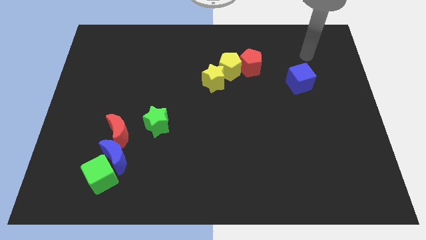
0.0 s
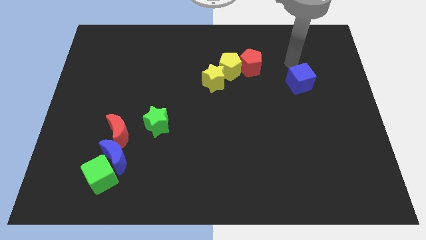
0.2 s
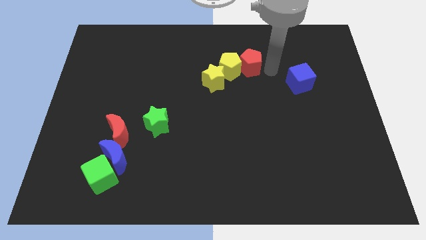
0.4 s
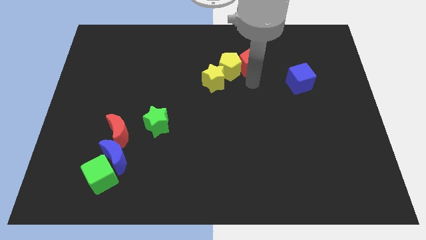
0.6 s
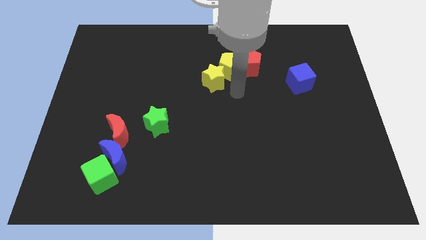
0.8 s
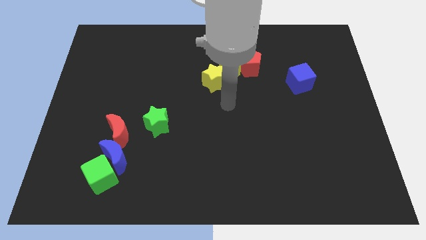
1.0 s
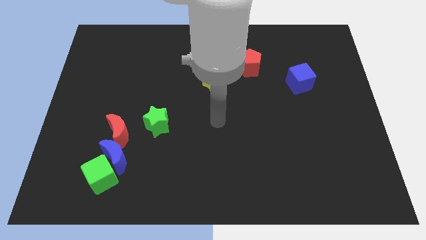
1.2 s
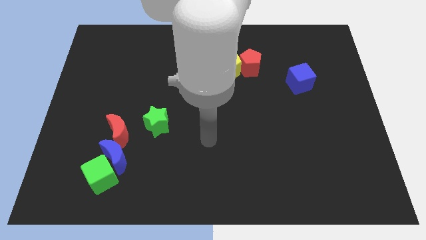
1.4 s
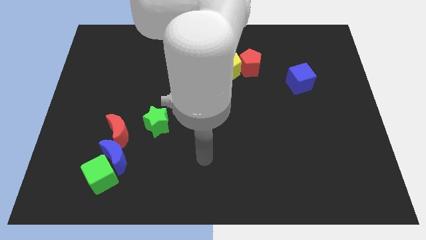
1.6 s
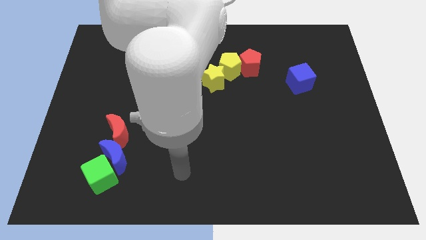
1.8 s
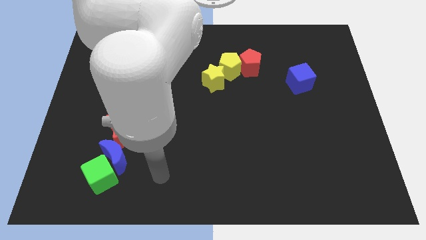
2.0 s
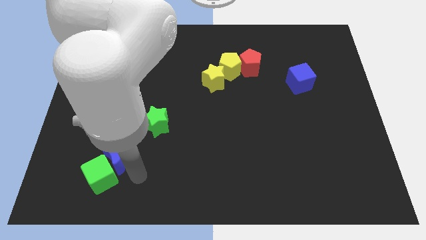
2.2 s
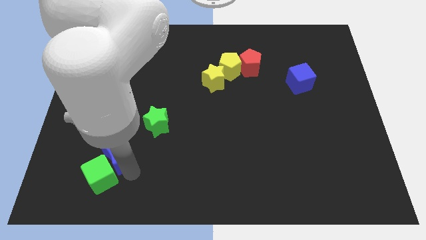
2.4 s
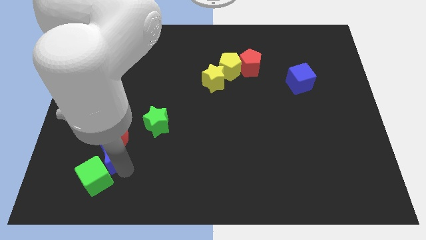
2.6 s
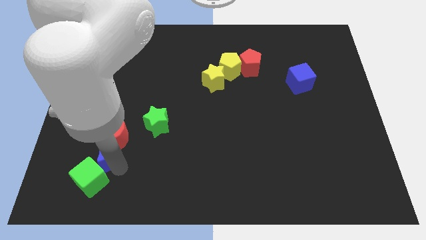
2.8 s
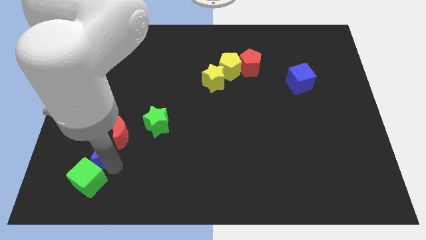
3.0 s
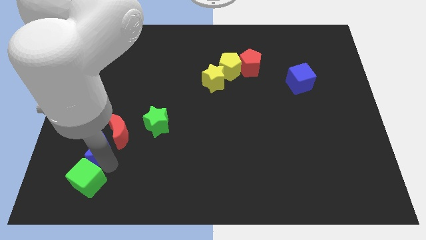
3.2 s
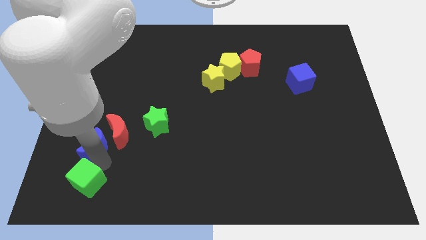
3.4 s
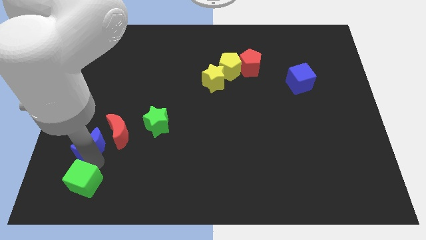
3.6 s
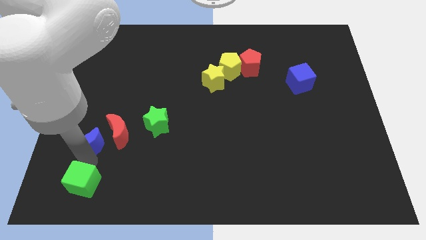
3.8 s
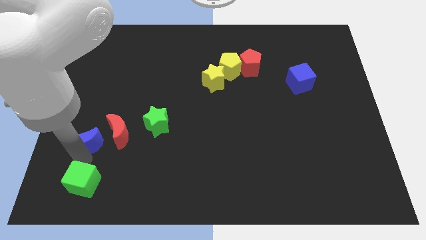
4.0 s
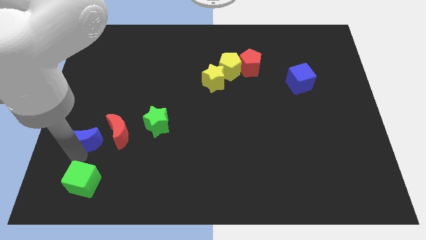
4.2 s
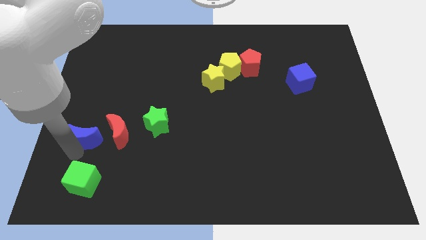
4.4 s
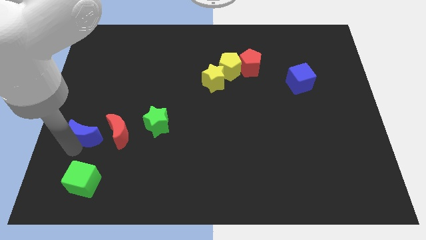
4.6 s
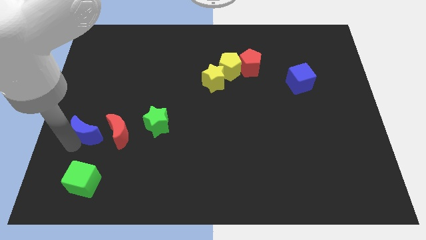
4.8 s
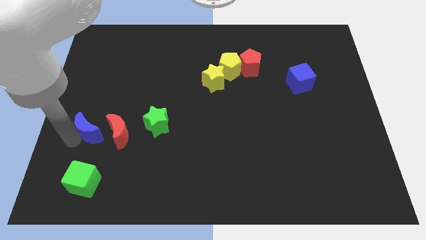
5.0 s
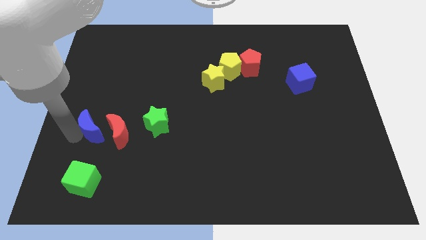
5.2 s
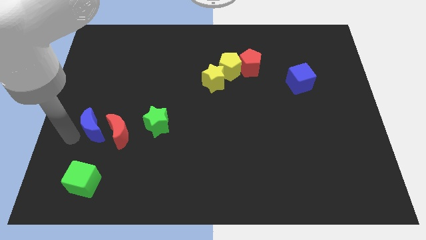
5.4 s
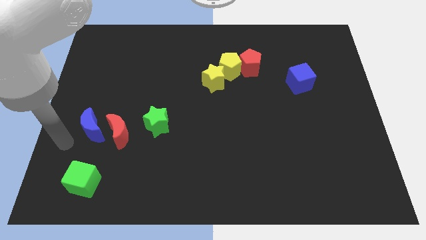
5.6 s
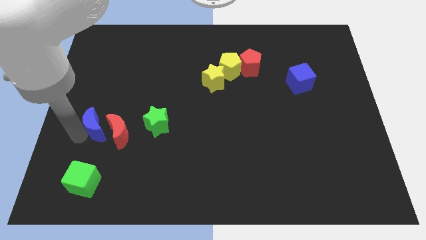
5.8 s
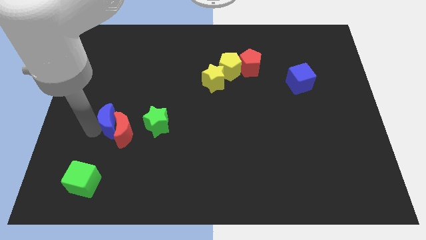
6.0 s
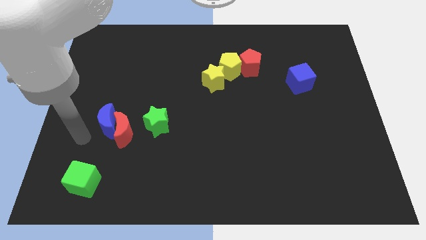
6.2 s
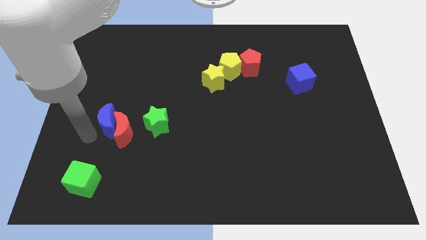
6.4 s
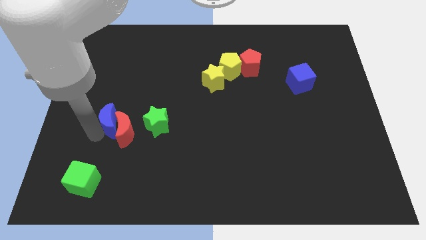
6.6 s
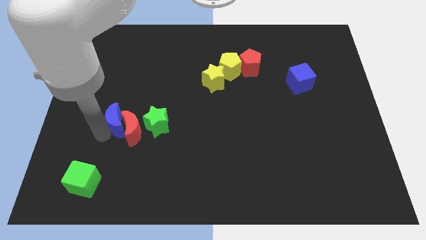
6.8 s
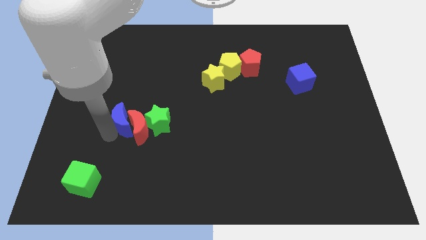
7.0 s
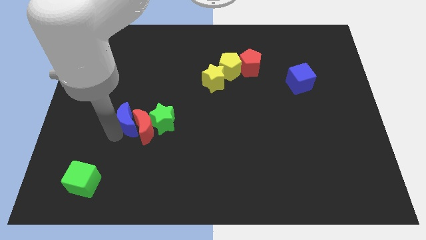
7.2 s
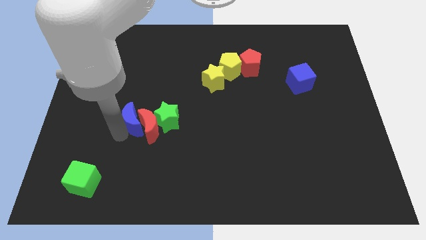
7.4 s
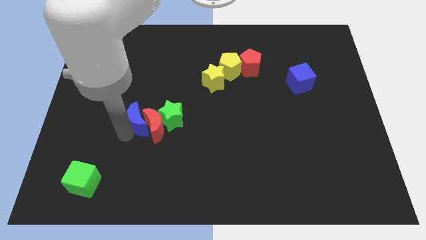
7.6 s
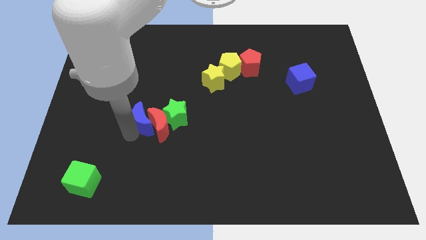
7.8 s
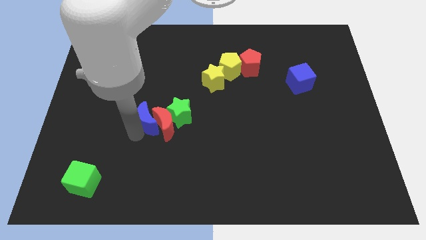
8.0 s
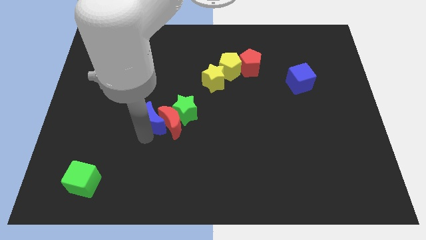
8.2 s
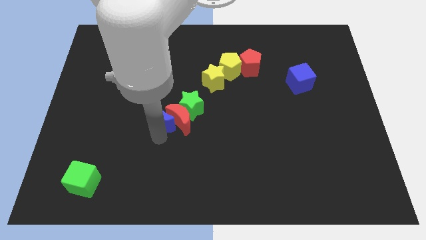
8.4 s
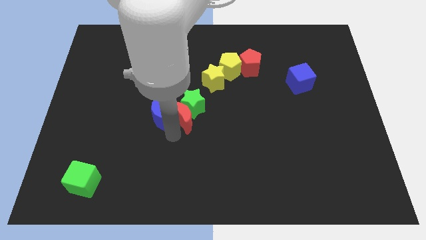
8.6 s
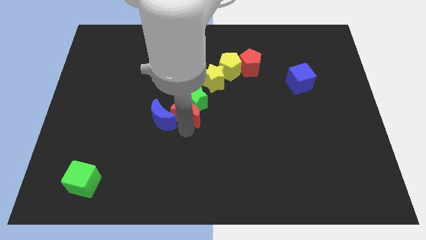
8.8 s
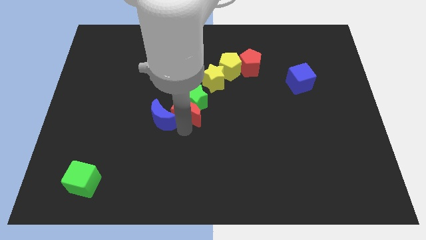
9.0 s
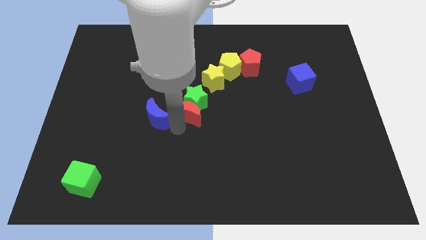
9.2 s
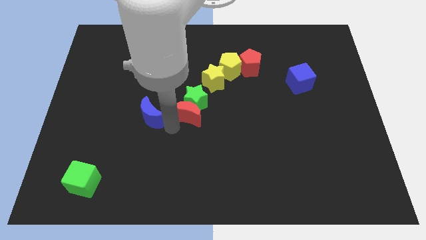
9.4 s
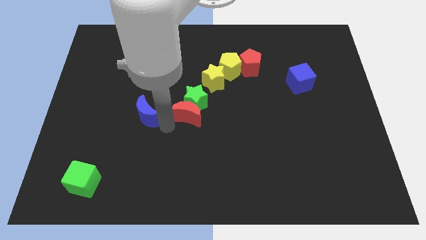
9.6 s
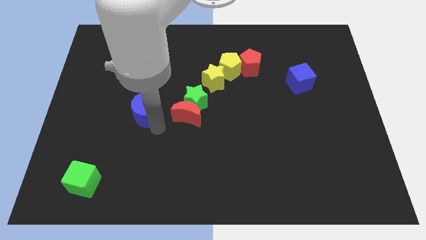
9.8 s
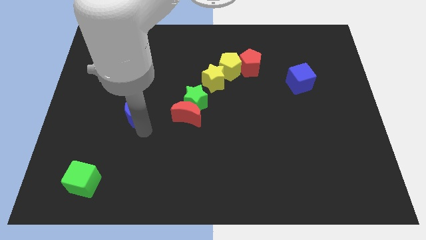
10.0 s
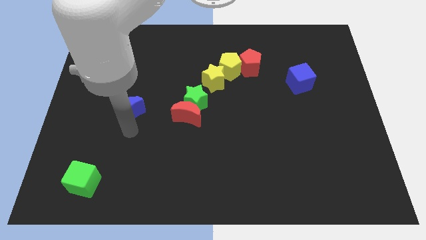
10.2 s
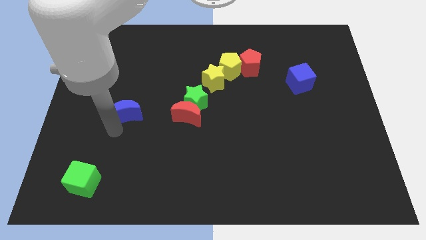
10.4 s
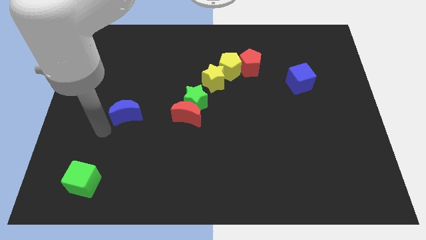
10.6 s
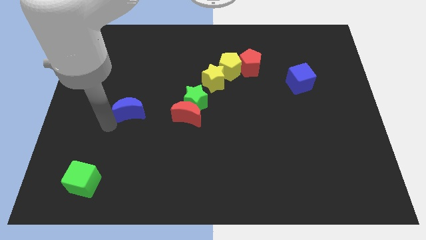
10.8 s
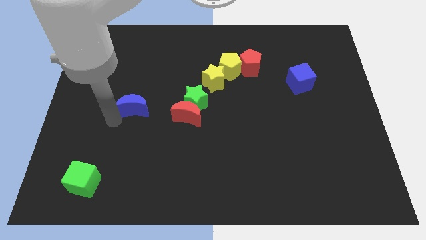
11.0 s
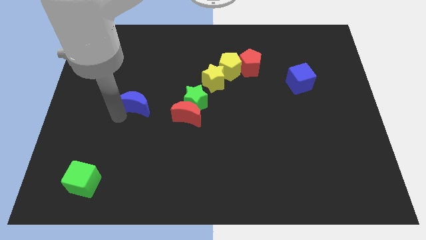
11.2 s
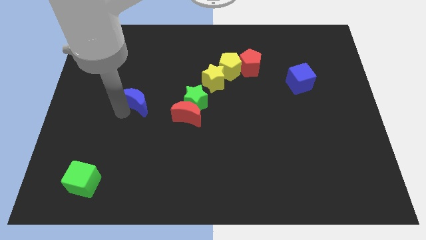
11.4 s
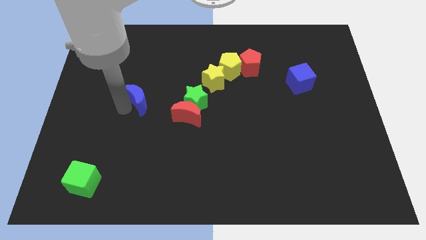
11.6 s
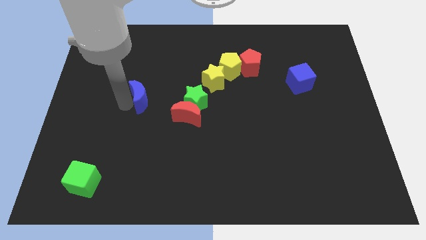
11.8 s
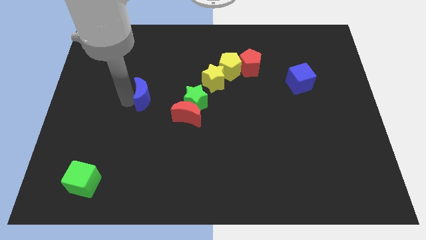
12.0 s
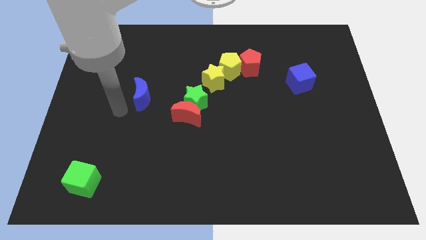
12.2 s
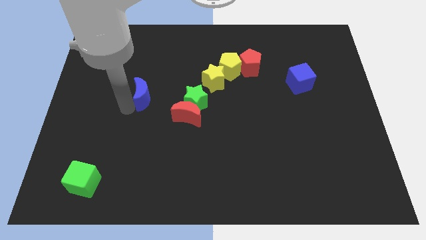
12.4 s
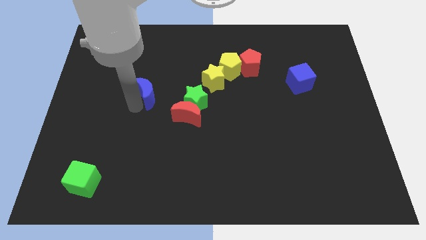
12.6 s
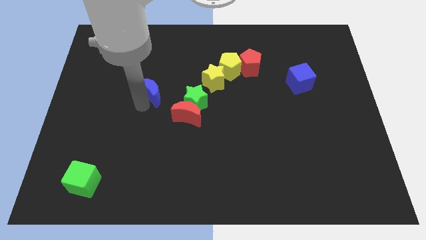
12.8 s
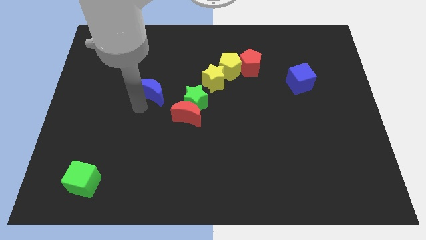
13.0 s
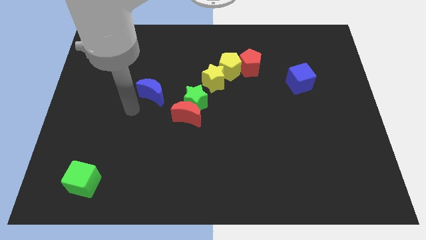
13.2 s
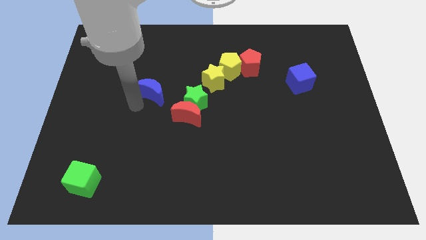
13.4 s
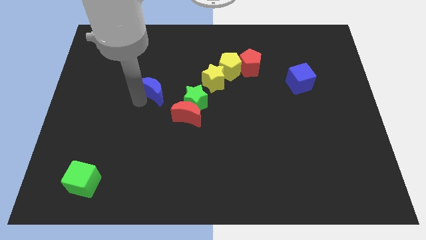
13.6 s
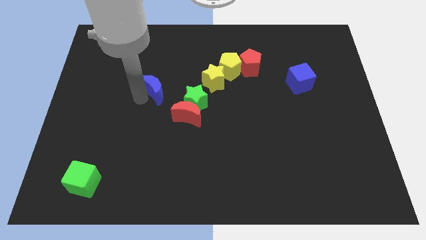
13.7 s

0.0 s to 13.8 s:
put the blue moon to the left side of the yellow star
